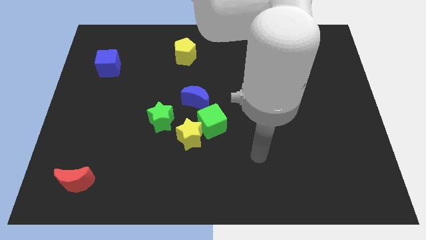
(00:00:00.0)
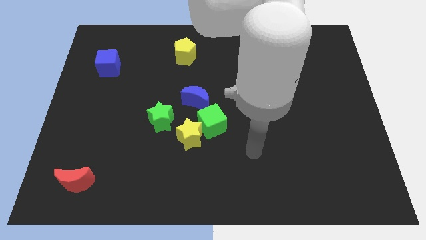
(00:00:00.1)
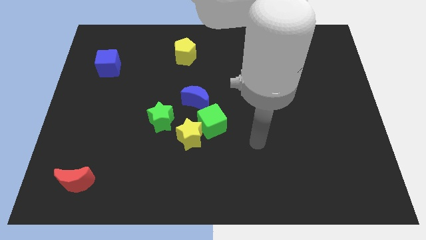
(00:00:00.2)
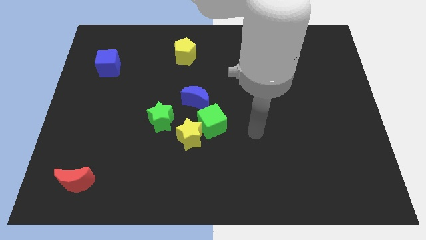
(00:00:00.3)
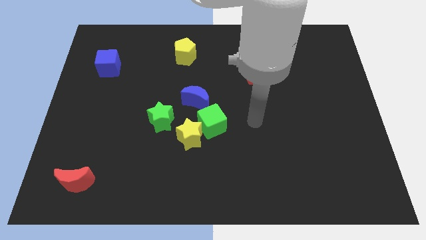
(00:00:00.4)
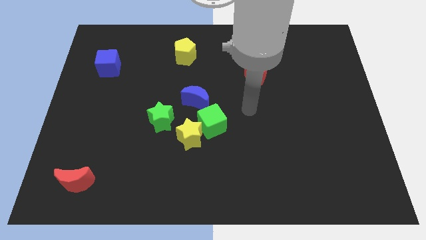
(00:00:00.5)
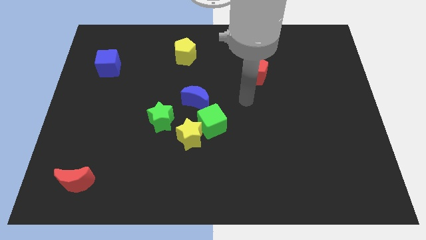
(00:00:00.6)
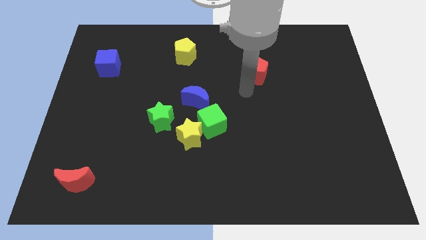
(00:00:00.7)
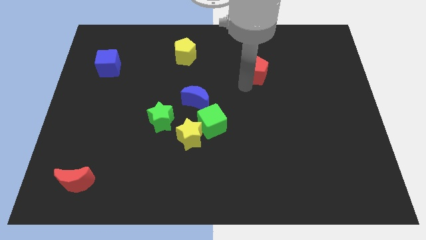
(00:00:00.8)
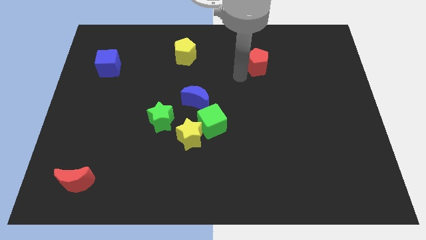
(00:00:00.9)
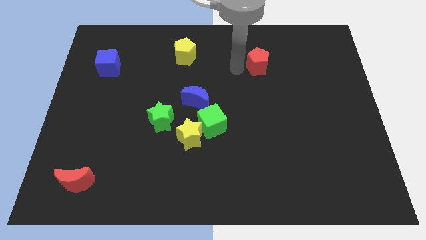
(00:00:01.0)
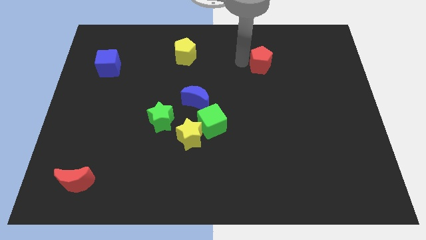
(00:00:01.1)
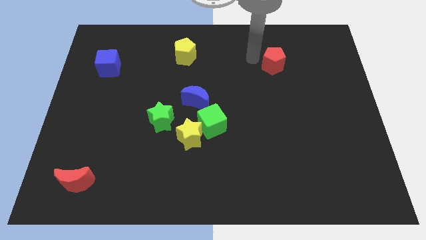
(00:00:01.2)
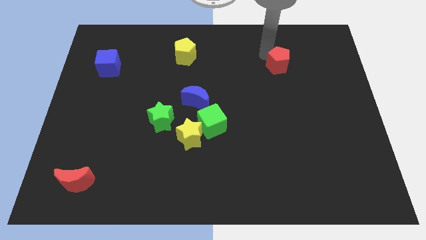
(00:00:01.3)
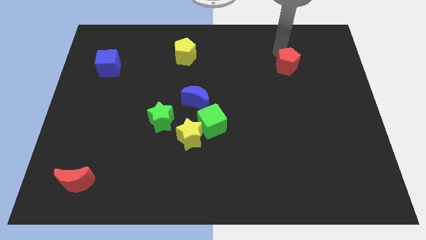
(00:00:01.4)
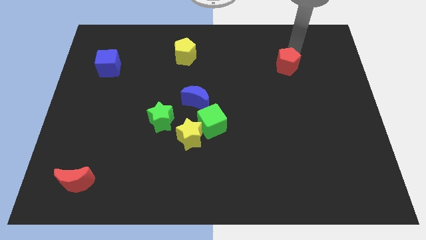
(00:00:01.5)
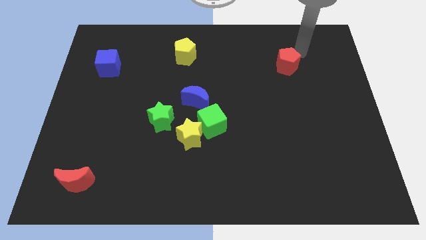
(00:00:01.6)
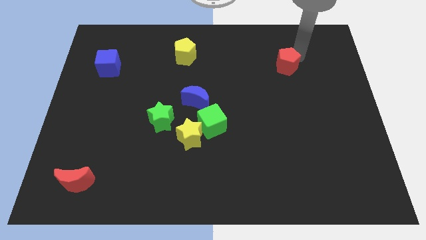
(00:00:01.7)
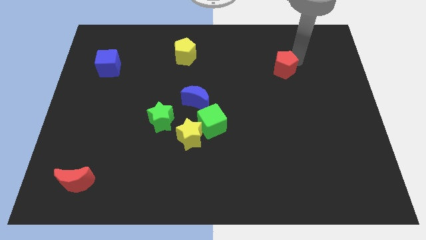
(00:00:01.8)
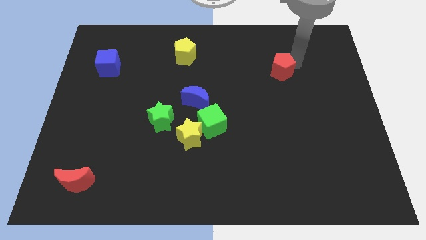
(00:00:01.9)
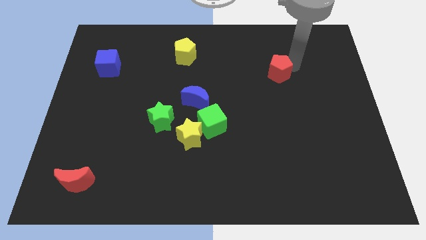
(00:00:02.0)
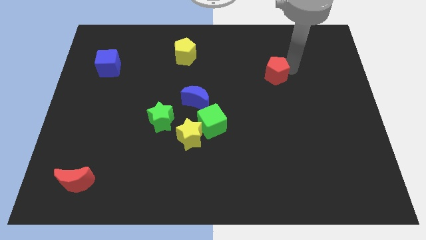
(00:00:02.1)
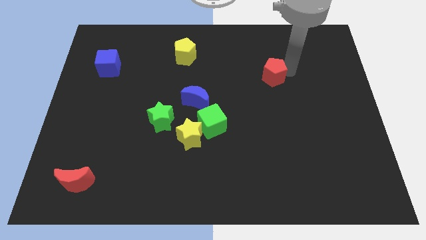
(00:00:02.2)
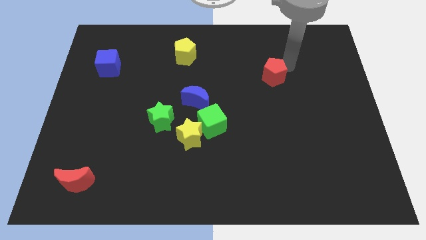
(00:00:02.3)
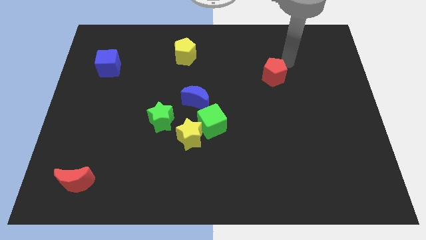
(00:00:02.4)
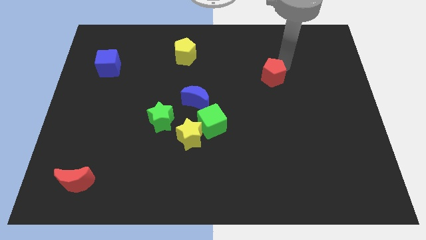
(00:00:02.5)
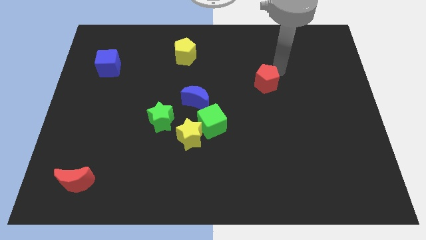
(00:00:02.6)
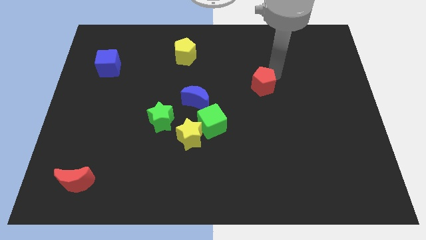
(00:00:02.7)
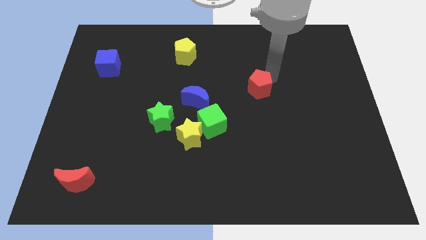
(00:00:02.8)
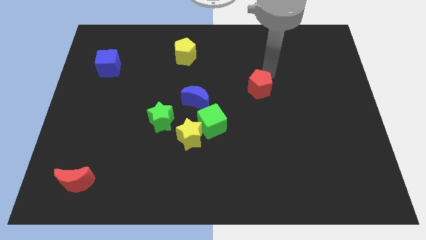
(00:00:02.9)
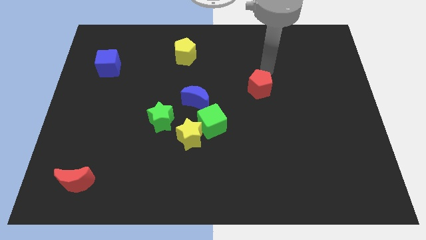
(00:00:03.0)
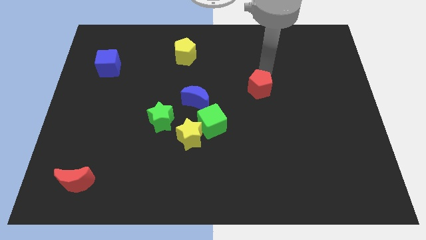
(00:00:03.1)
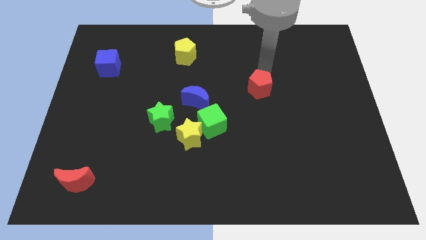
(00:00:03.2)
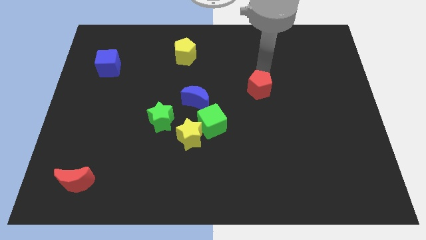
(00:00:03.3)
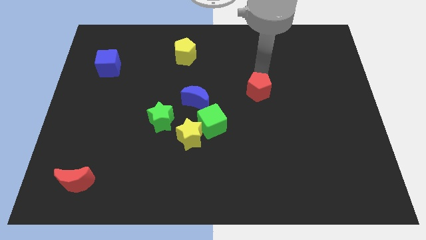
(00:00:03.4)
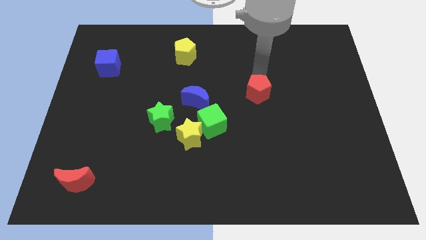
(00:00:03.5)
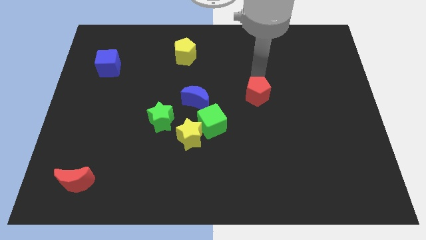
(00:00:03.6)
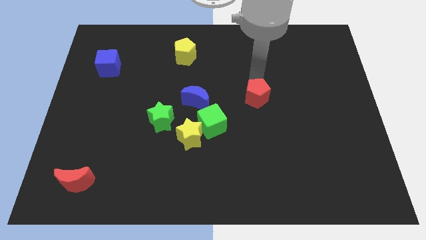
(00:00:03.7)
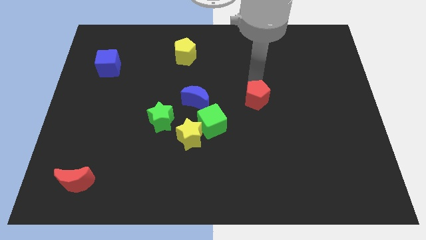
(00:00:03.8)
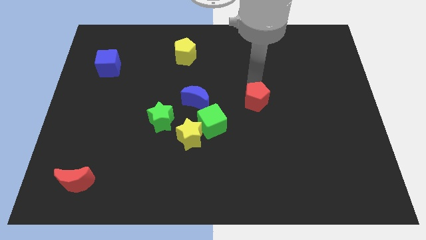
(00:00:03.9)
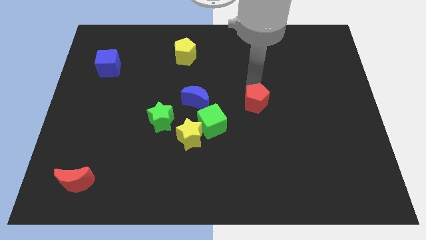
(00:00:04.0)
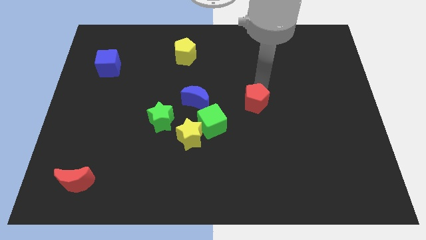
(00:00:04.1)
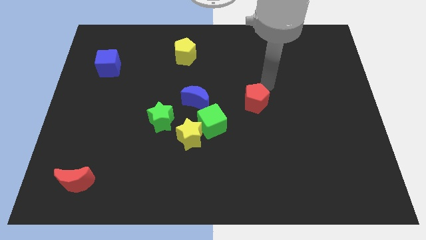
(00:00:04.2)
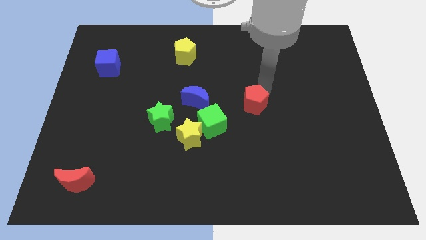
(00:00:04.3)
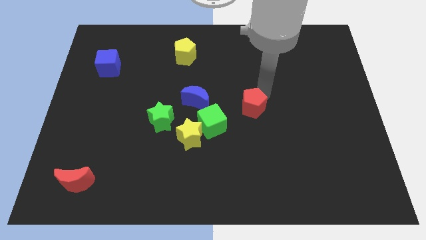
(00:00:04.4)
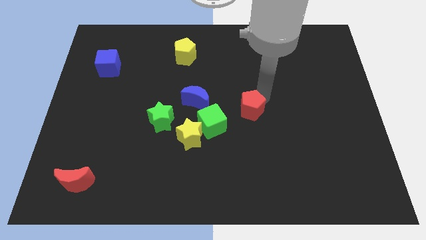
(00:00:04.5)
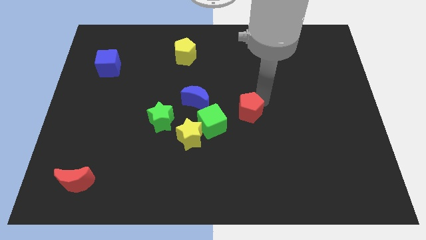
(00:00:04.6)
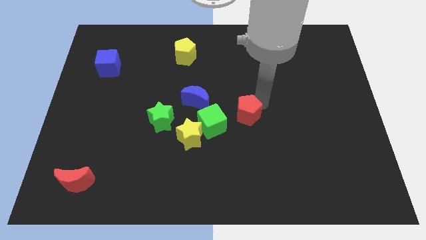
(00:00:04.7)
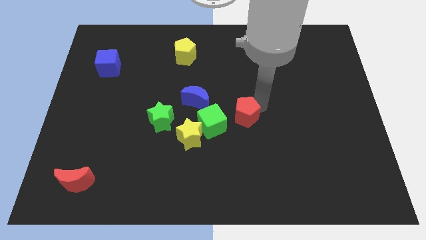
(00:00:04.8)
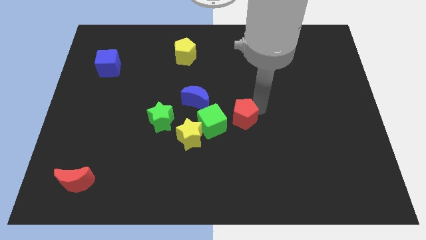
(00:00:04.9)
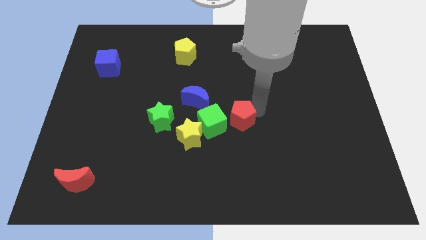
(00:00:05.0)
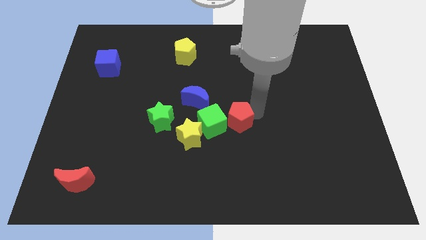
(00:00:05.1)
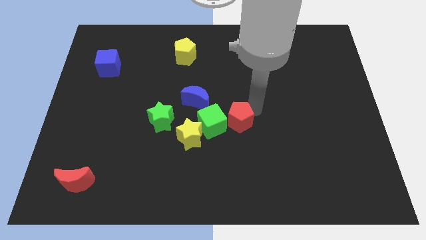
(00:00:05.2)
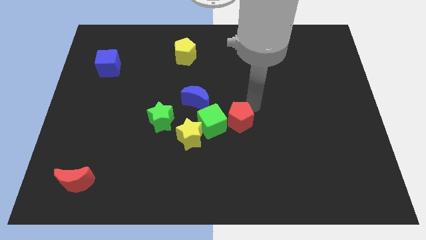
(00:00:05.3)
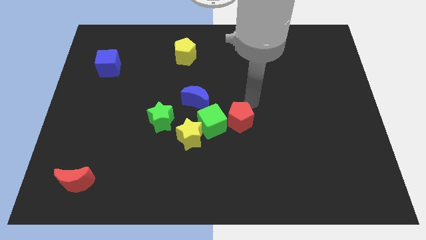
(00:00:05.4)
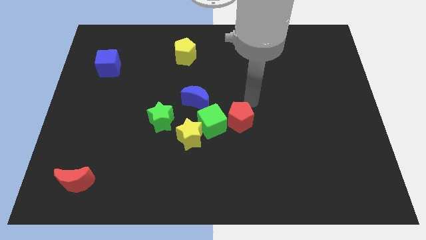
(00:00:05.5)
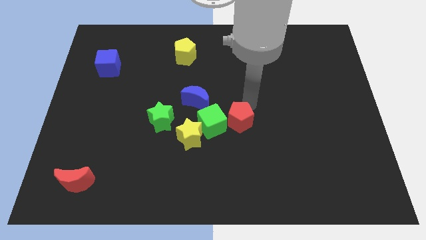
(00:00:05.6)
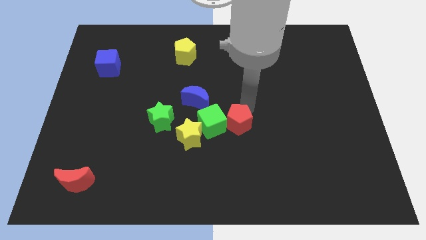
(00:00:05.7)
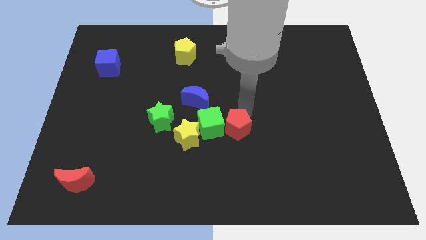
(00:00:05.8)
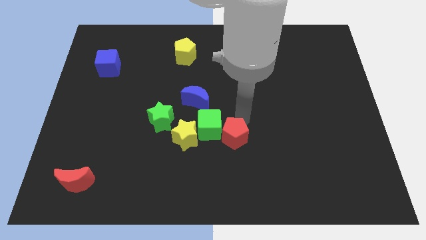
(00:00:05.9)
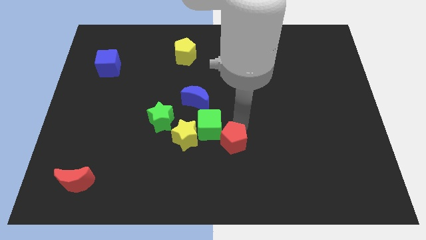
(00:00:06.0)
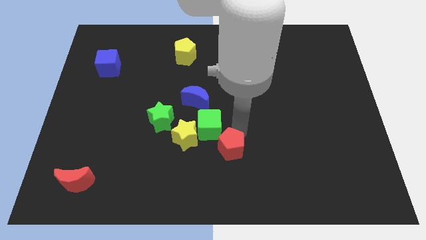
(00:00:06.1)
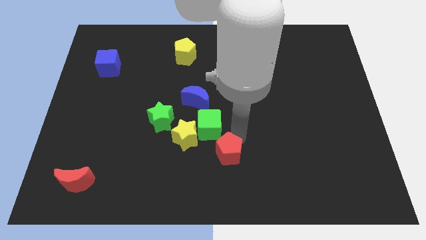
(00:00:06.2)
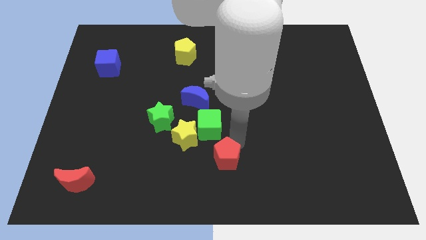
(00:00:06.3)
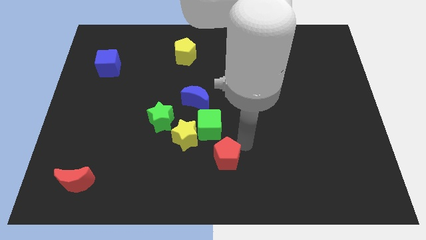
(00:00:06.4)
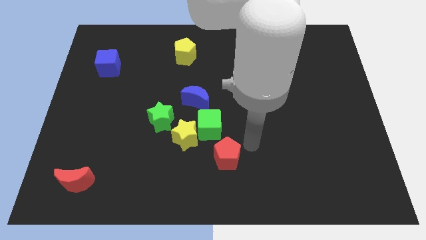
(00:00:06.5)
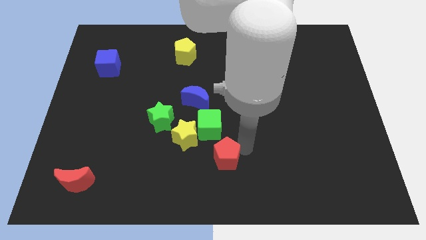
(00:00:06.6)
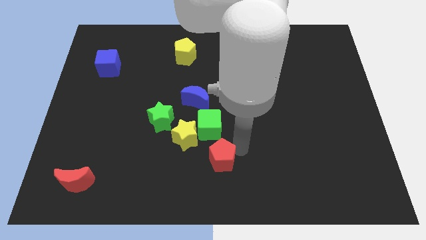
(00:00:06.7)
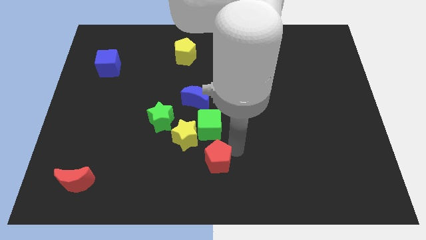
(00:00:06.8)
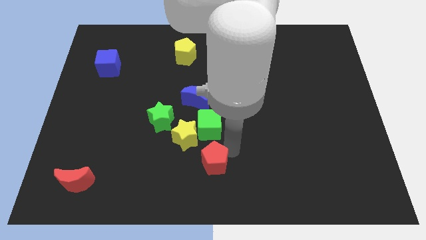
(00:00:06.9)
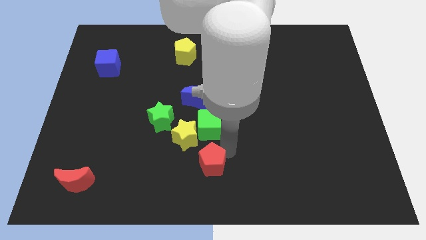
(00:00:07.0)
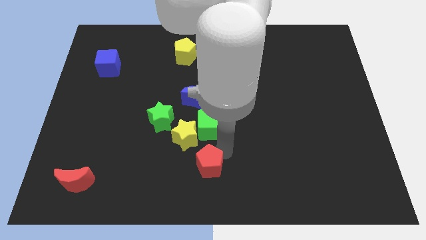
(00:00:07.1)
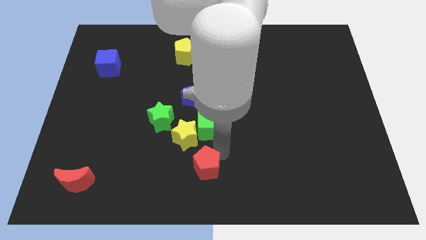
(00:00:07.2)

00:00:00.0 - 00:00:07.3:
slide the red pentagon to the bottom of the yellow star
